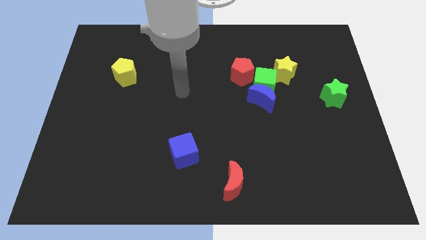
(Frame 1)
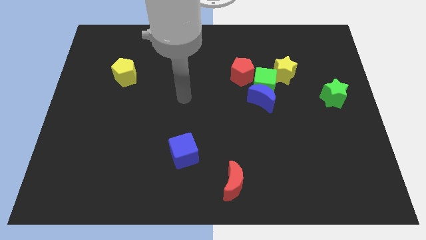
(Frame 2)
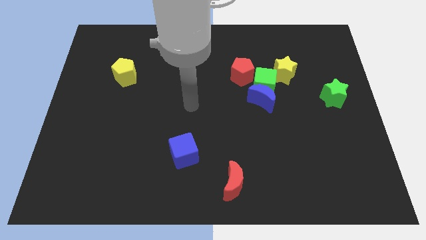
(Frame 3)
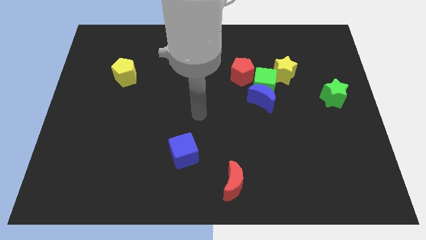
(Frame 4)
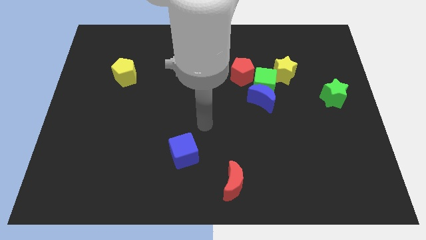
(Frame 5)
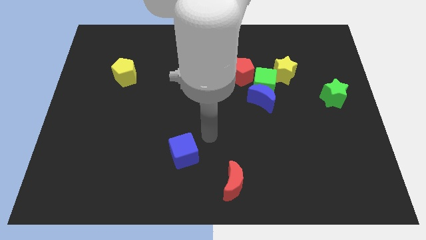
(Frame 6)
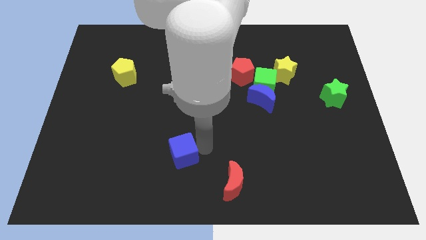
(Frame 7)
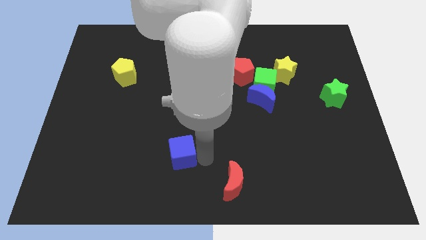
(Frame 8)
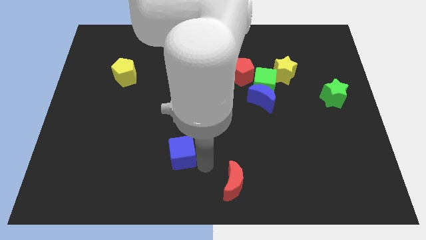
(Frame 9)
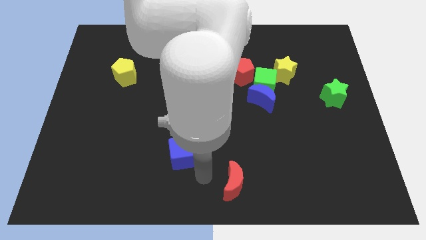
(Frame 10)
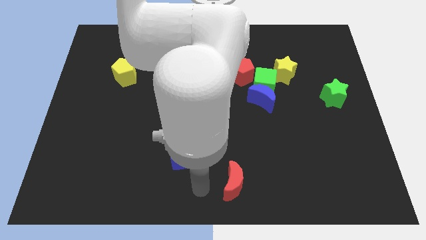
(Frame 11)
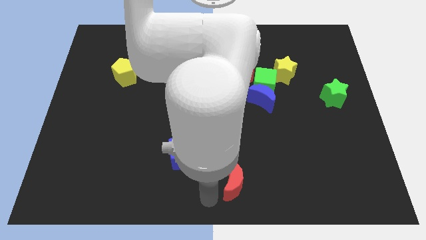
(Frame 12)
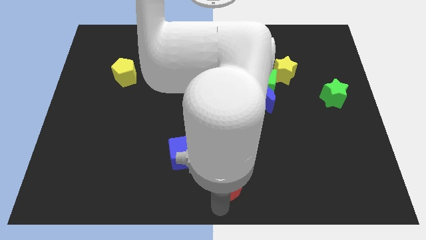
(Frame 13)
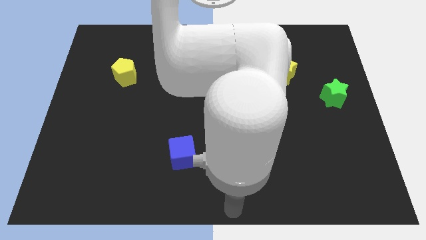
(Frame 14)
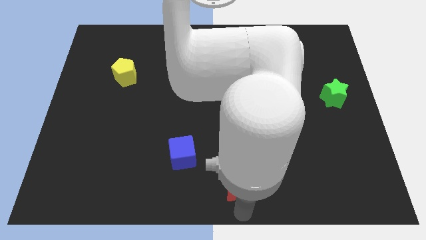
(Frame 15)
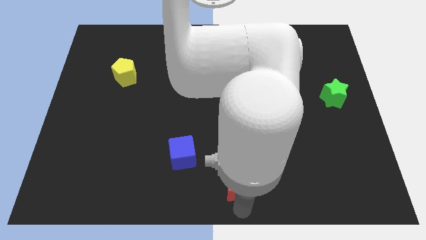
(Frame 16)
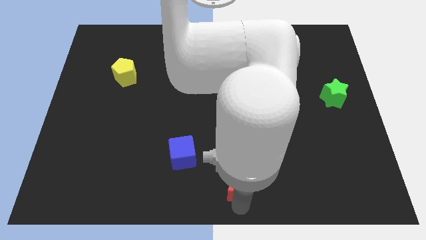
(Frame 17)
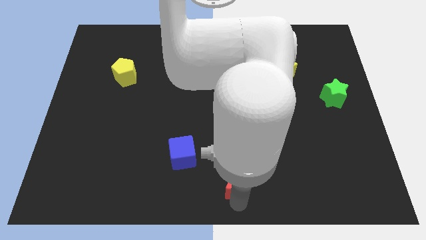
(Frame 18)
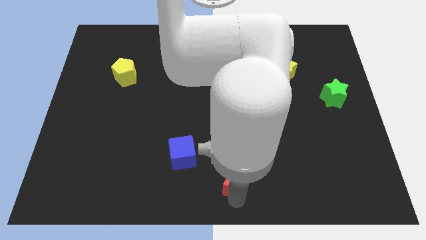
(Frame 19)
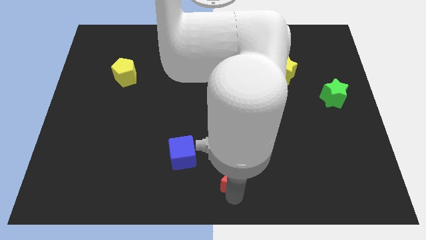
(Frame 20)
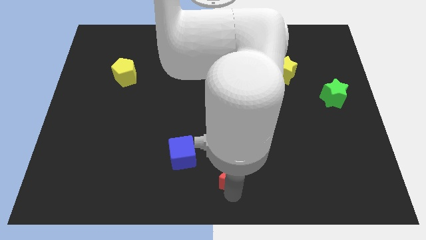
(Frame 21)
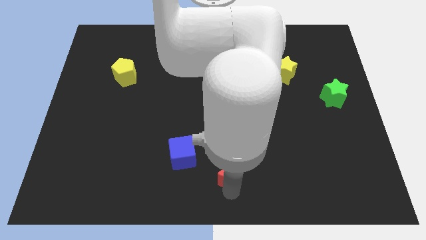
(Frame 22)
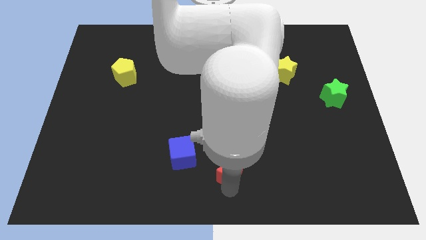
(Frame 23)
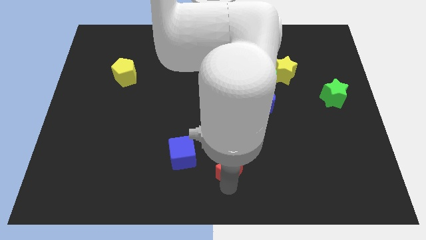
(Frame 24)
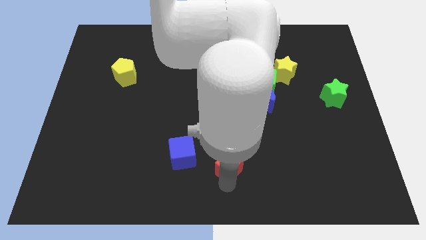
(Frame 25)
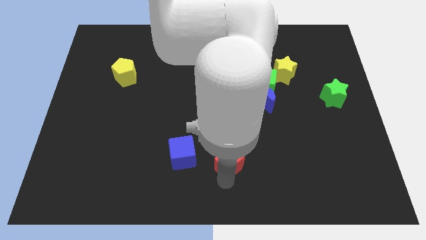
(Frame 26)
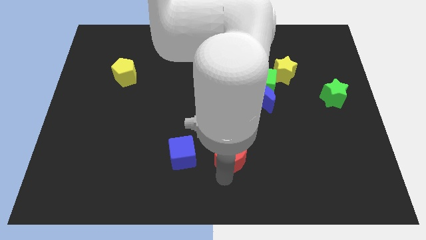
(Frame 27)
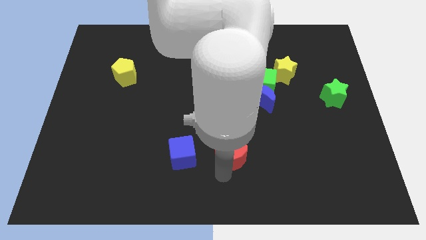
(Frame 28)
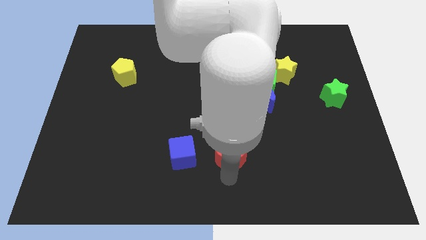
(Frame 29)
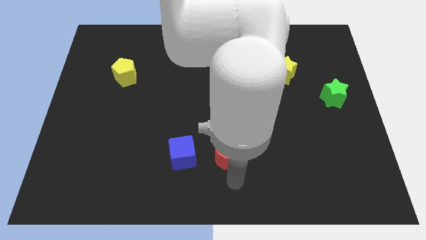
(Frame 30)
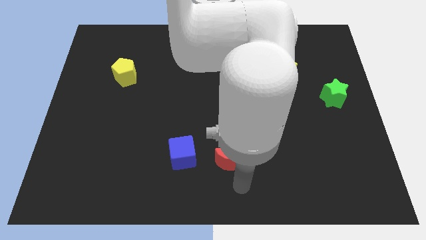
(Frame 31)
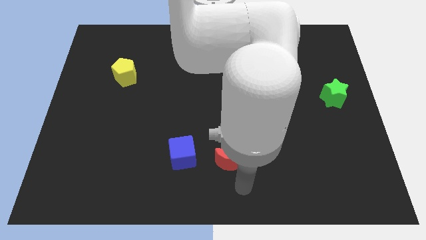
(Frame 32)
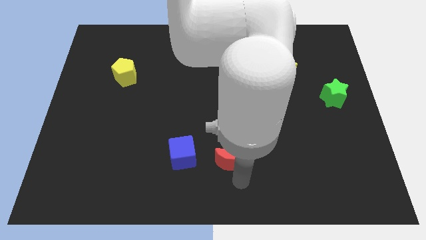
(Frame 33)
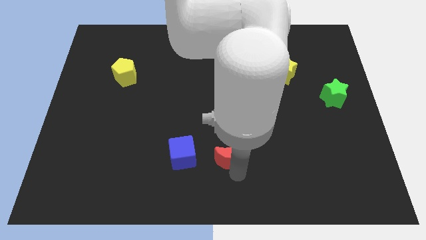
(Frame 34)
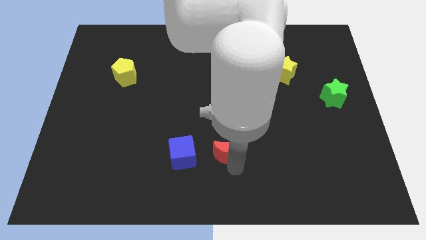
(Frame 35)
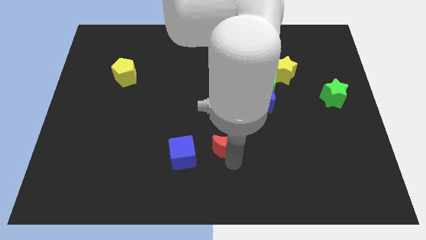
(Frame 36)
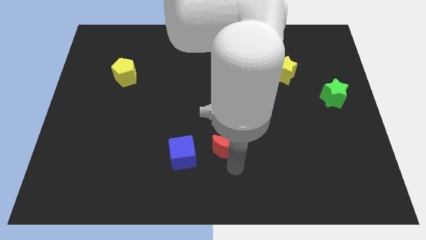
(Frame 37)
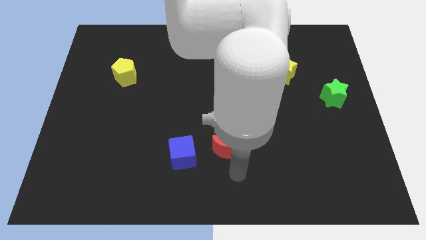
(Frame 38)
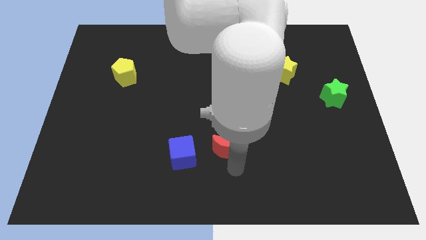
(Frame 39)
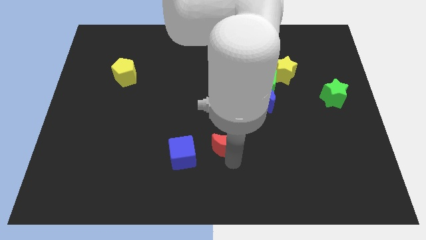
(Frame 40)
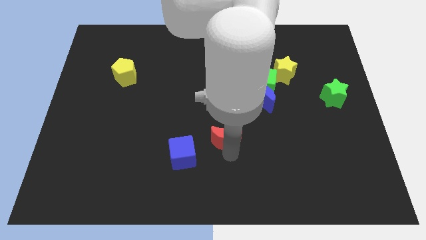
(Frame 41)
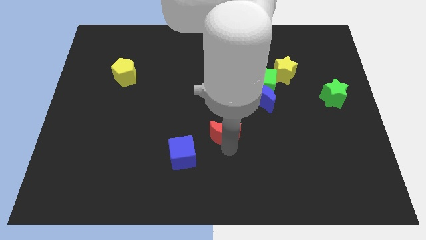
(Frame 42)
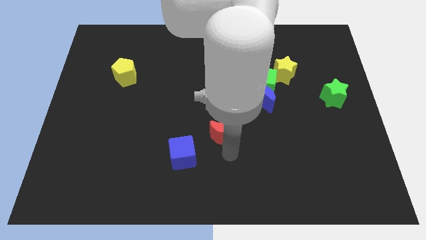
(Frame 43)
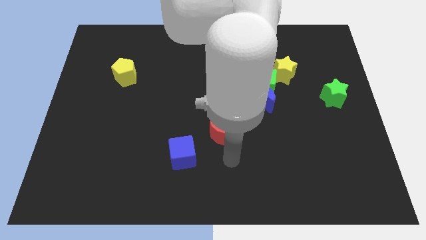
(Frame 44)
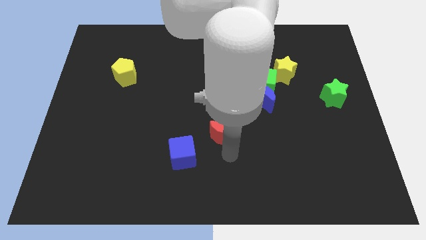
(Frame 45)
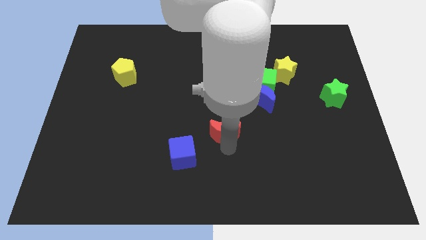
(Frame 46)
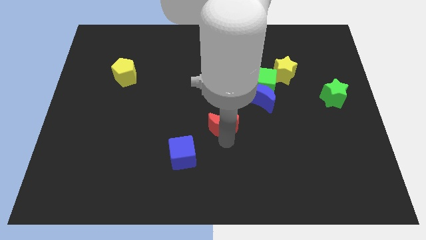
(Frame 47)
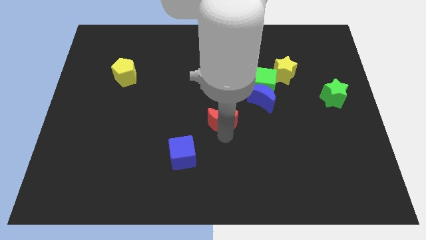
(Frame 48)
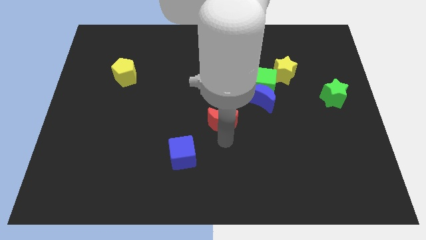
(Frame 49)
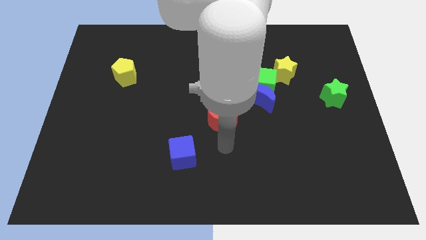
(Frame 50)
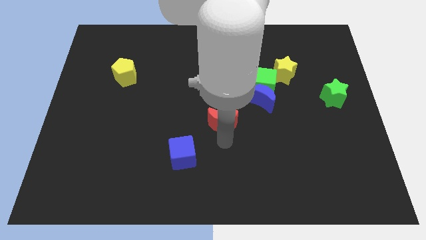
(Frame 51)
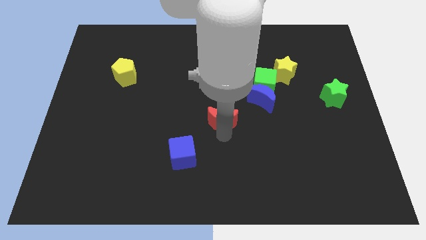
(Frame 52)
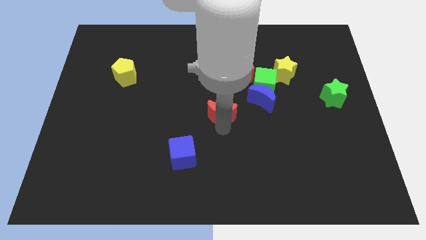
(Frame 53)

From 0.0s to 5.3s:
put the red moon to the left side of the blue moon

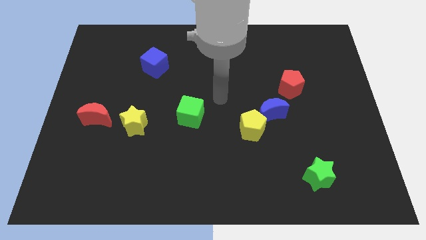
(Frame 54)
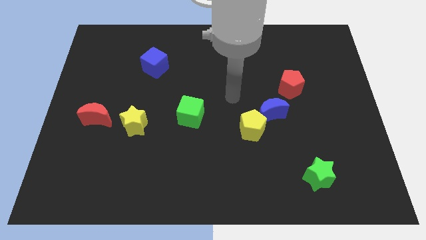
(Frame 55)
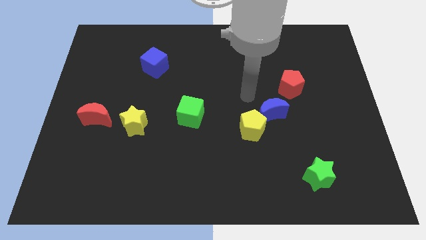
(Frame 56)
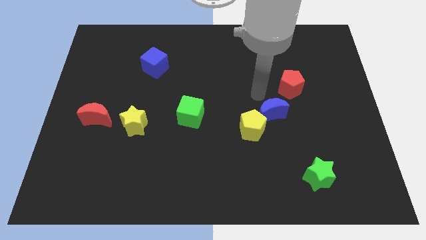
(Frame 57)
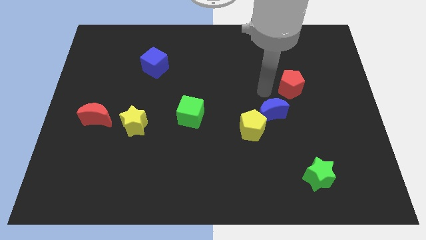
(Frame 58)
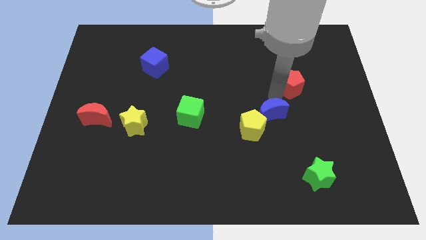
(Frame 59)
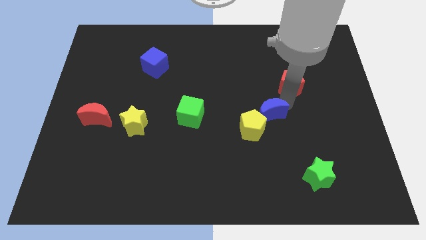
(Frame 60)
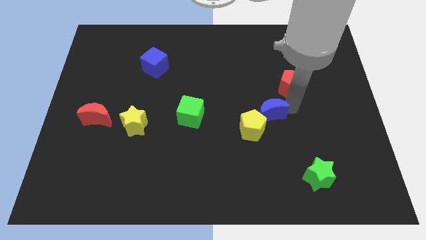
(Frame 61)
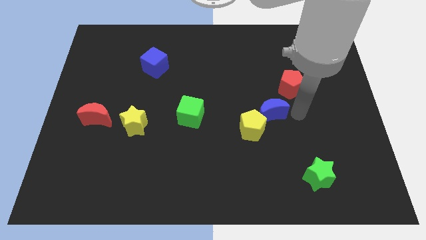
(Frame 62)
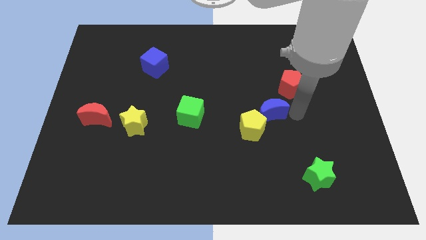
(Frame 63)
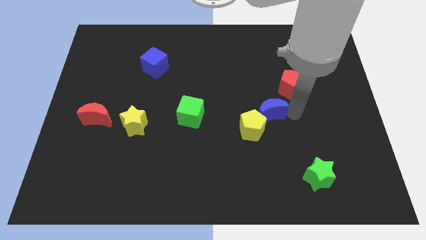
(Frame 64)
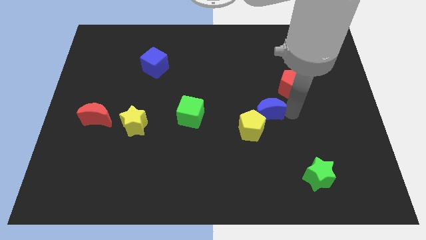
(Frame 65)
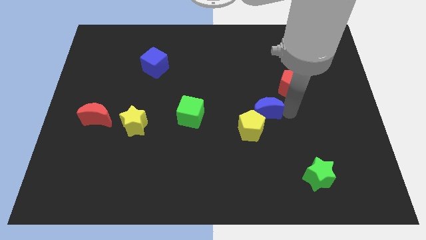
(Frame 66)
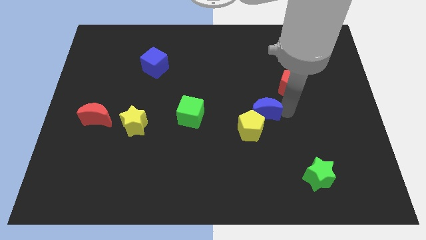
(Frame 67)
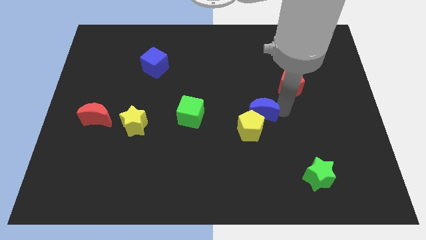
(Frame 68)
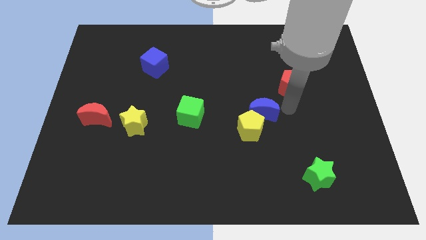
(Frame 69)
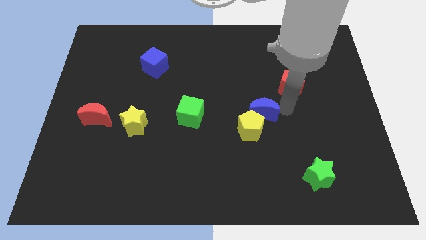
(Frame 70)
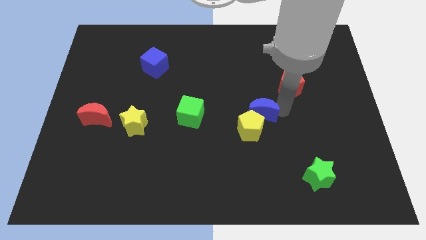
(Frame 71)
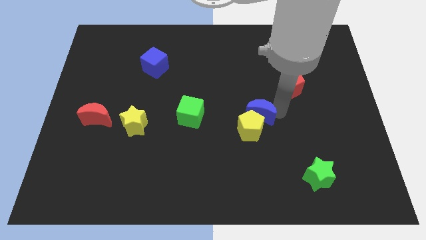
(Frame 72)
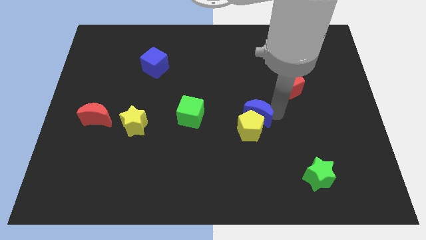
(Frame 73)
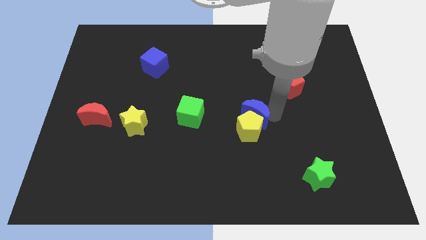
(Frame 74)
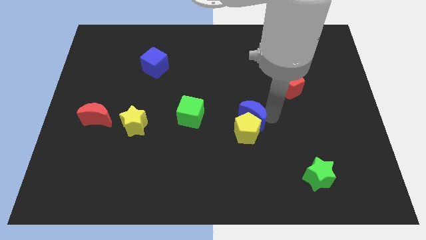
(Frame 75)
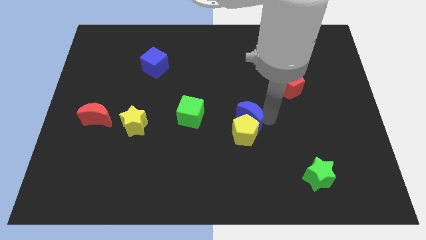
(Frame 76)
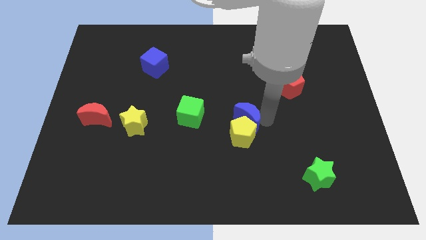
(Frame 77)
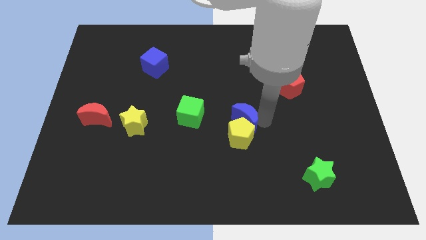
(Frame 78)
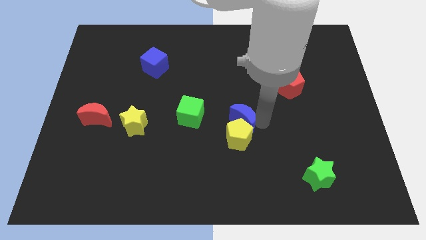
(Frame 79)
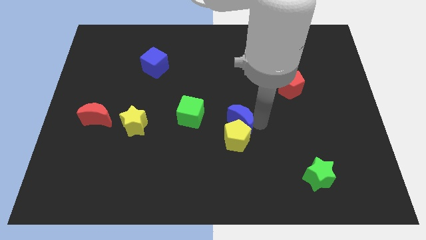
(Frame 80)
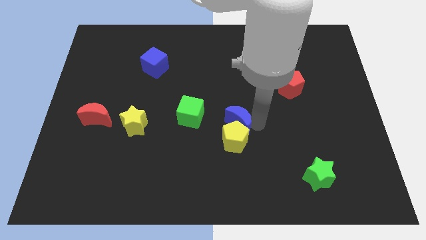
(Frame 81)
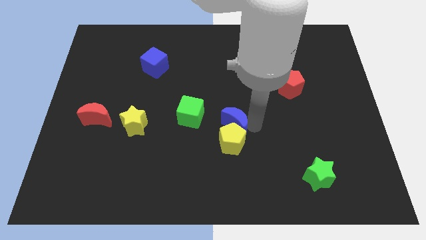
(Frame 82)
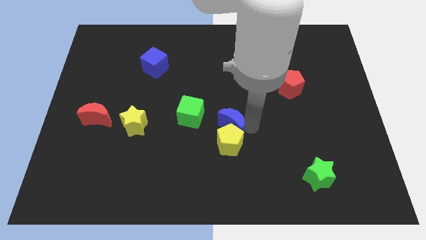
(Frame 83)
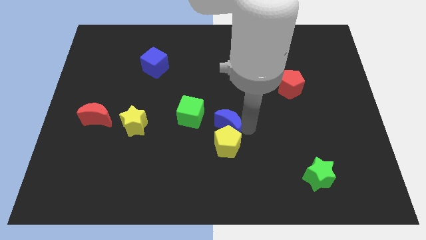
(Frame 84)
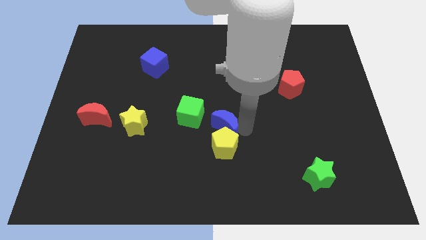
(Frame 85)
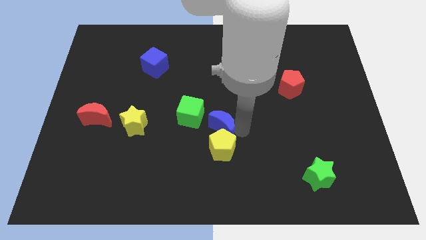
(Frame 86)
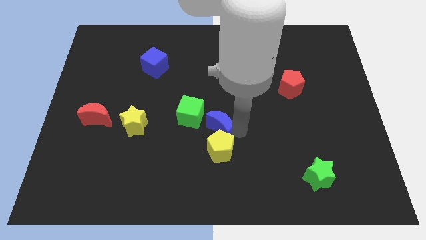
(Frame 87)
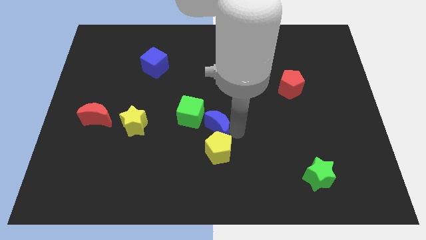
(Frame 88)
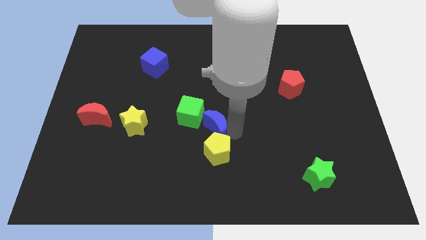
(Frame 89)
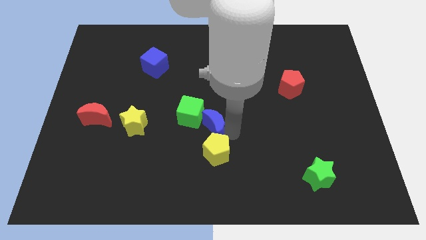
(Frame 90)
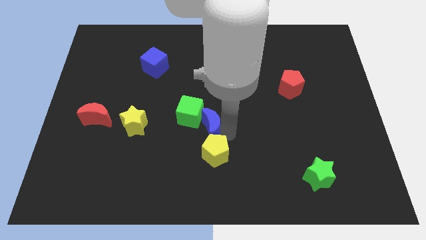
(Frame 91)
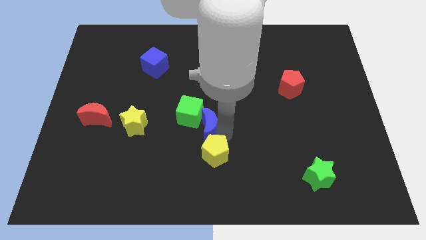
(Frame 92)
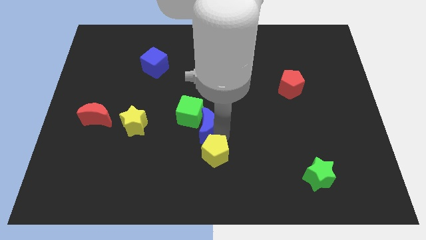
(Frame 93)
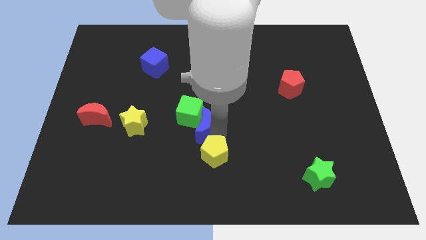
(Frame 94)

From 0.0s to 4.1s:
push the blue moon to the right side of the yellow star
